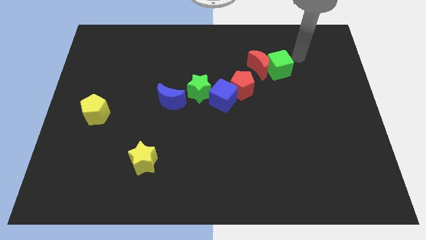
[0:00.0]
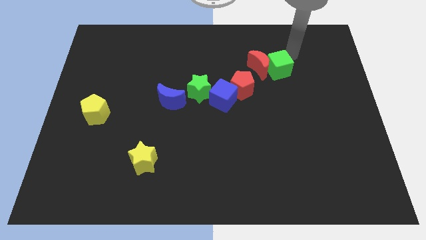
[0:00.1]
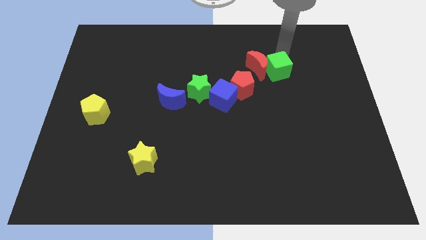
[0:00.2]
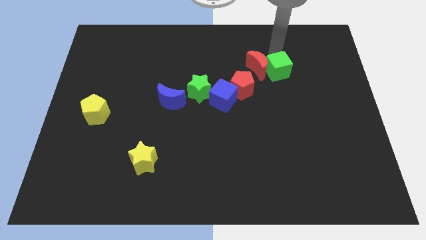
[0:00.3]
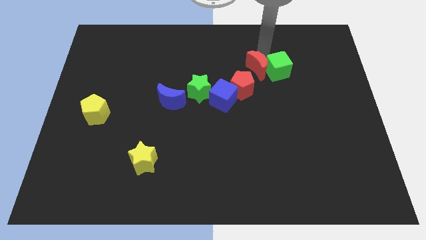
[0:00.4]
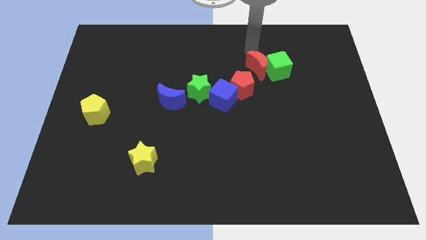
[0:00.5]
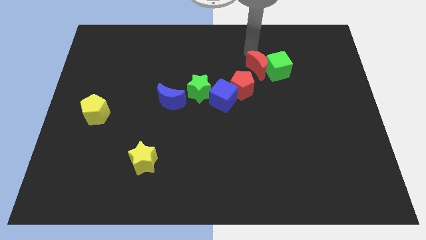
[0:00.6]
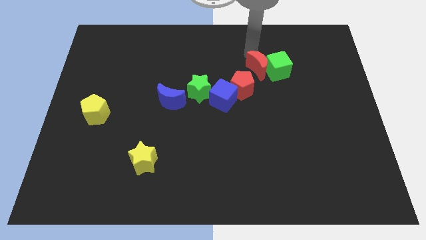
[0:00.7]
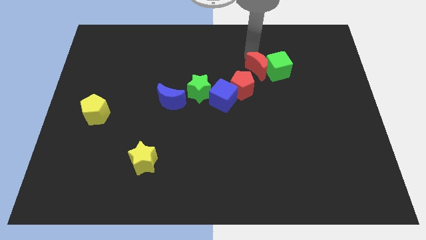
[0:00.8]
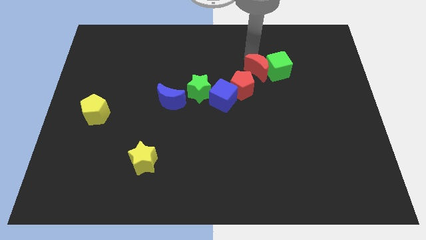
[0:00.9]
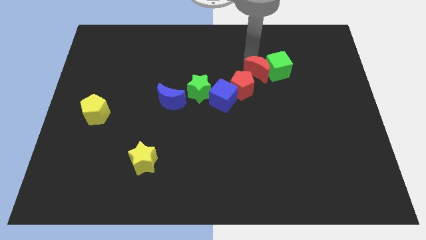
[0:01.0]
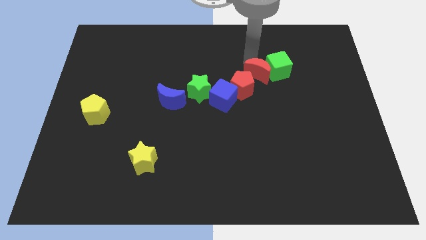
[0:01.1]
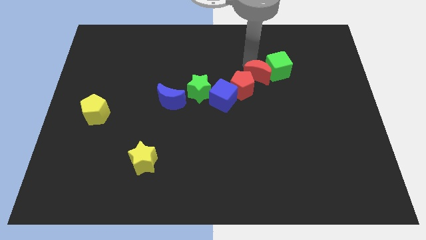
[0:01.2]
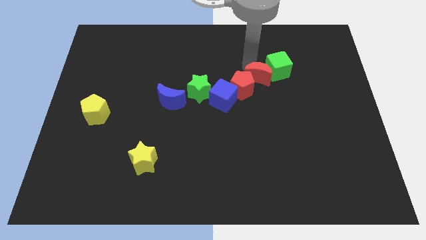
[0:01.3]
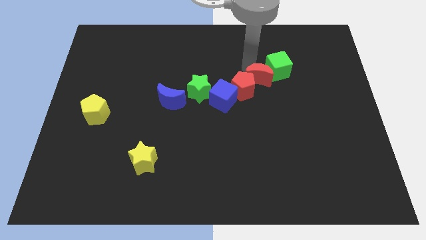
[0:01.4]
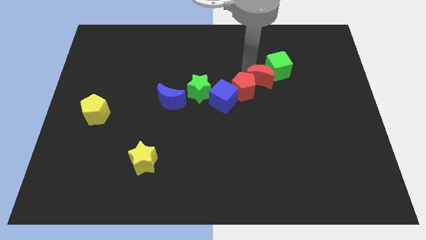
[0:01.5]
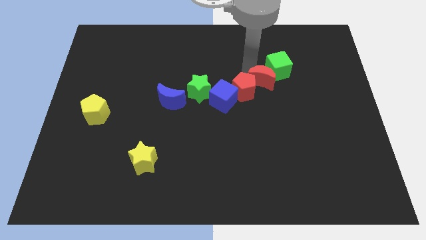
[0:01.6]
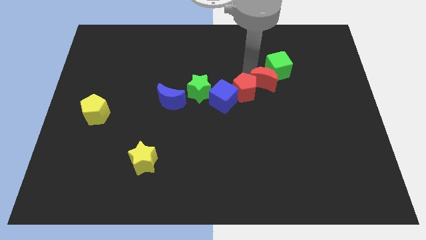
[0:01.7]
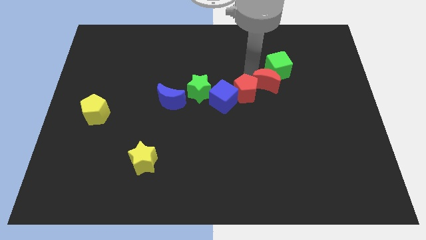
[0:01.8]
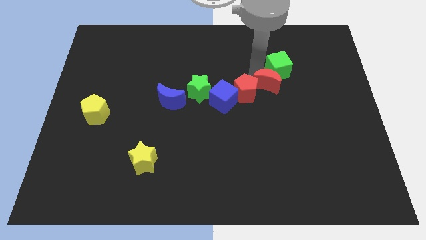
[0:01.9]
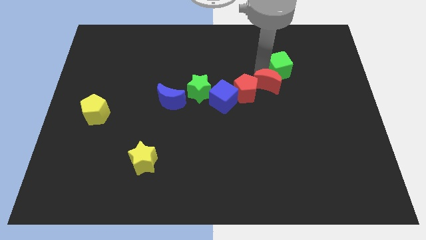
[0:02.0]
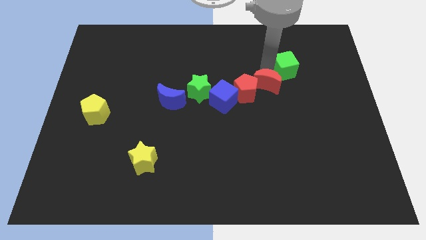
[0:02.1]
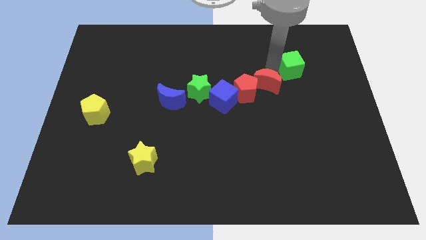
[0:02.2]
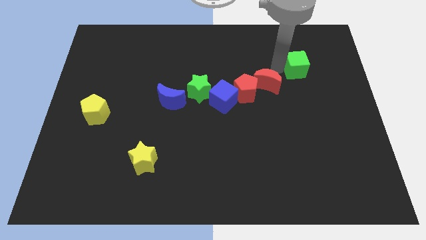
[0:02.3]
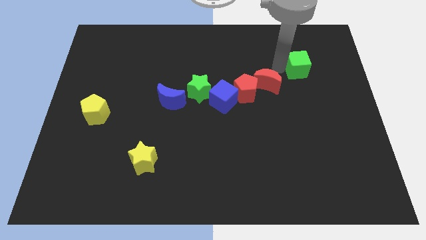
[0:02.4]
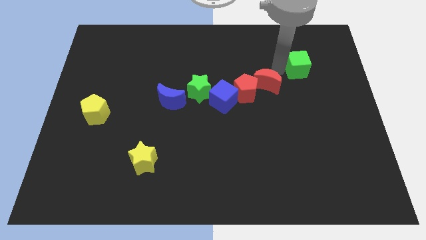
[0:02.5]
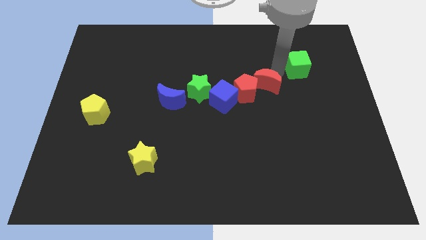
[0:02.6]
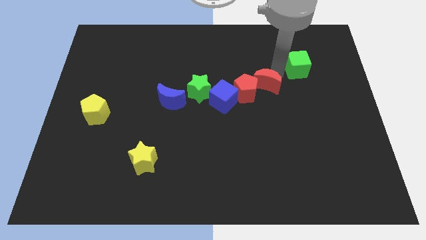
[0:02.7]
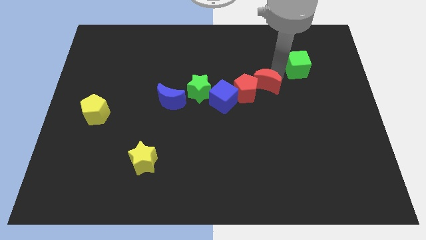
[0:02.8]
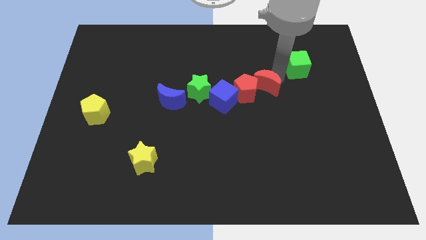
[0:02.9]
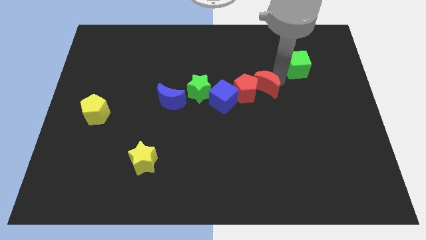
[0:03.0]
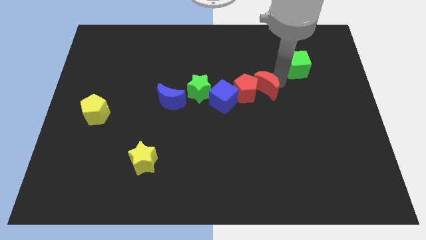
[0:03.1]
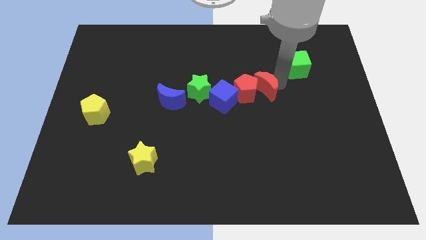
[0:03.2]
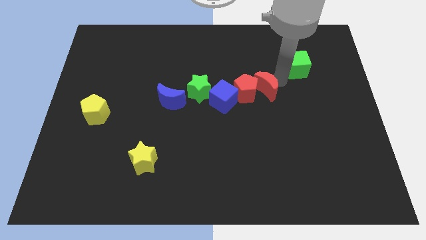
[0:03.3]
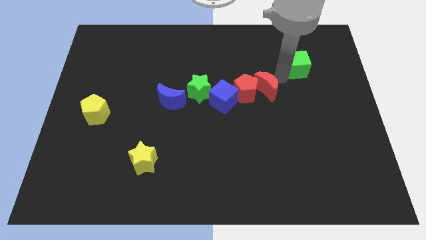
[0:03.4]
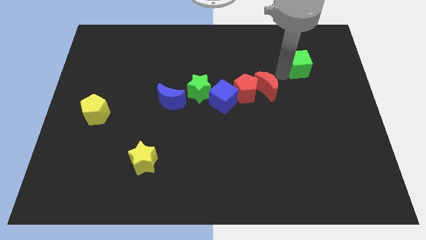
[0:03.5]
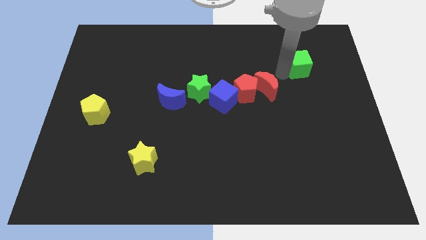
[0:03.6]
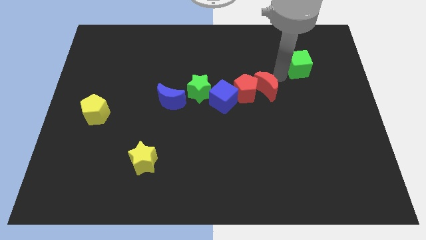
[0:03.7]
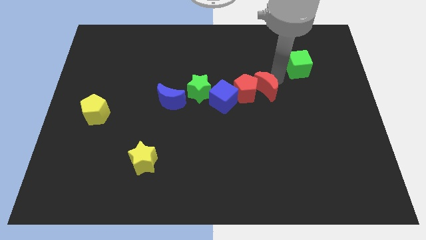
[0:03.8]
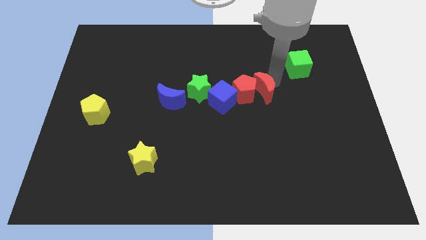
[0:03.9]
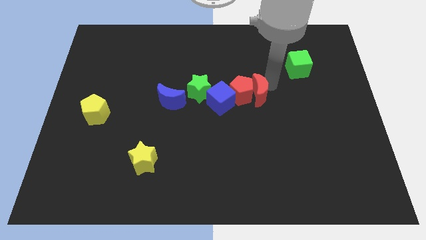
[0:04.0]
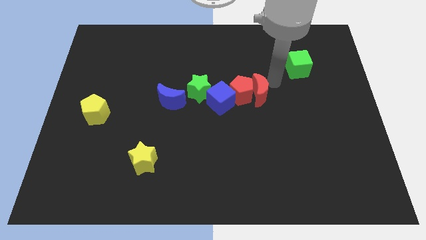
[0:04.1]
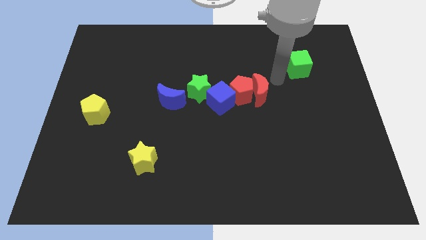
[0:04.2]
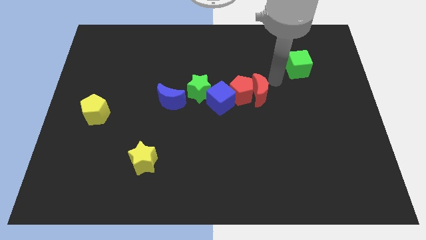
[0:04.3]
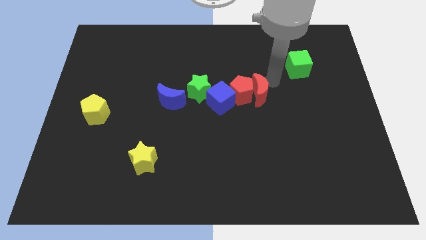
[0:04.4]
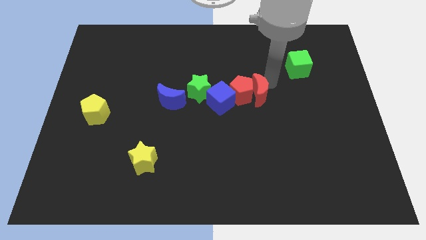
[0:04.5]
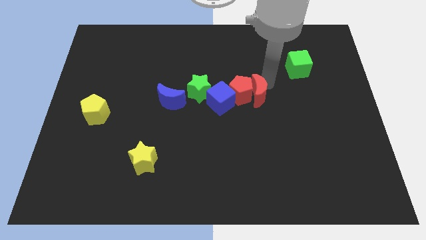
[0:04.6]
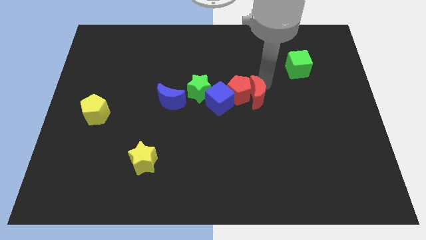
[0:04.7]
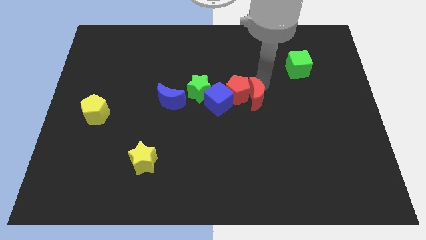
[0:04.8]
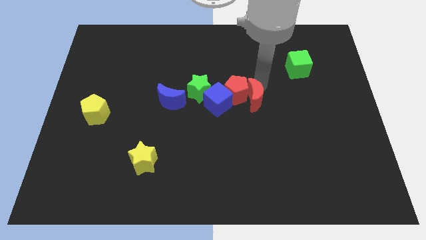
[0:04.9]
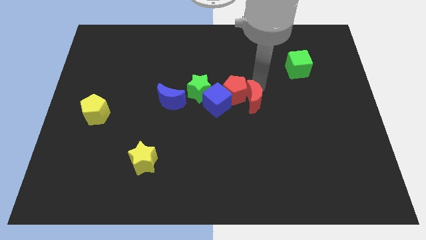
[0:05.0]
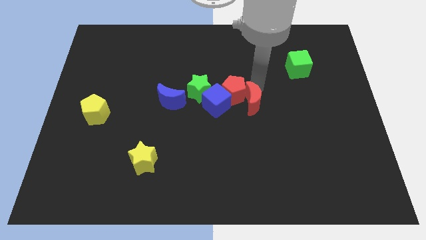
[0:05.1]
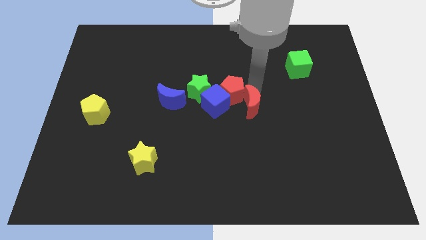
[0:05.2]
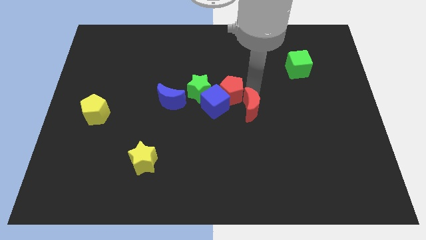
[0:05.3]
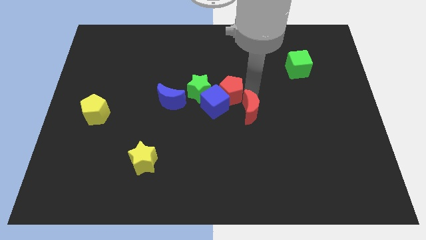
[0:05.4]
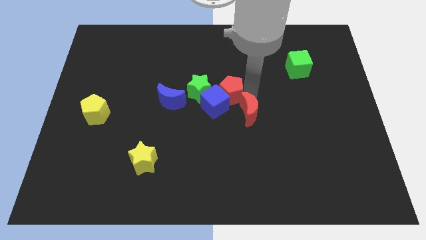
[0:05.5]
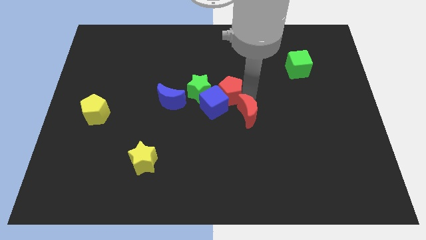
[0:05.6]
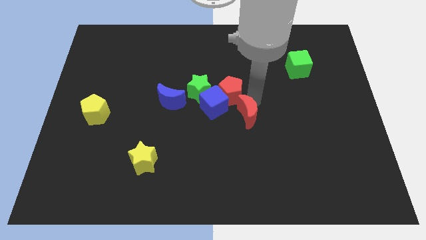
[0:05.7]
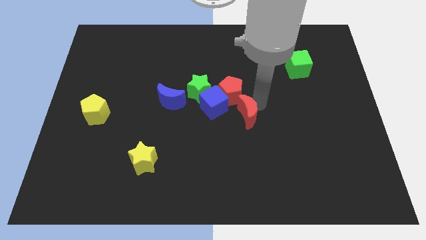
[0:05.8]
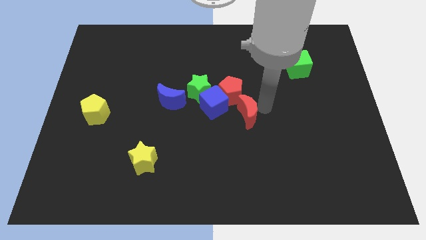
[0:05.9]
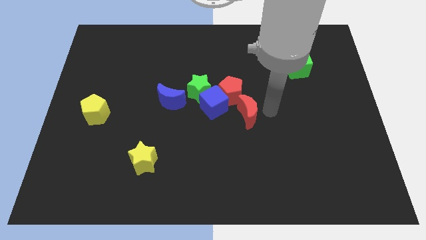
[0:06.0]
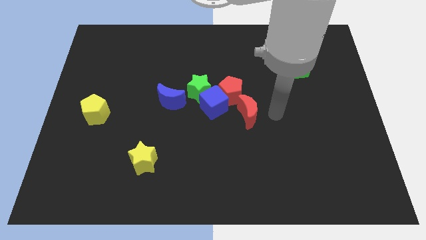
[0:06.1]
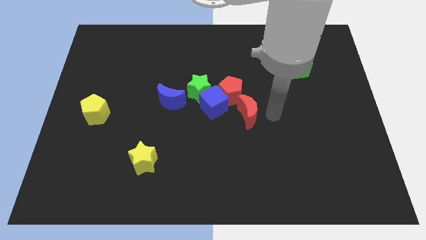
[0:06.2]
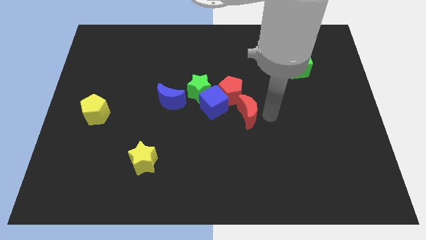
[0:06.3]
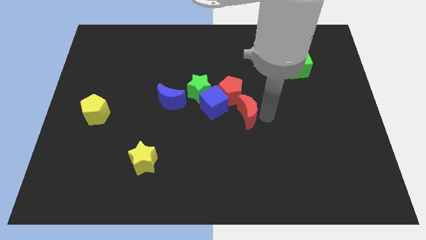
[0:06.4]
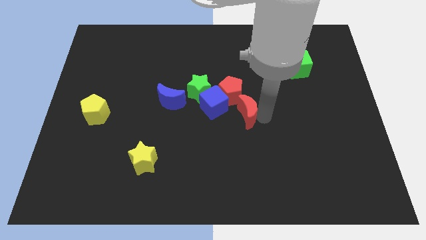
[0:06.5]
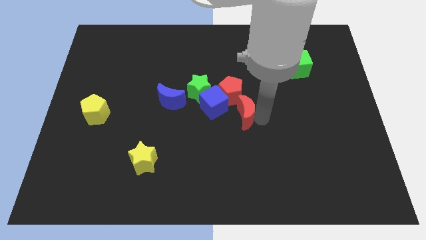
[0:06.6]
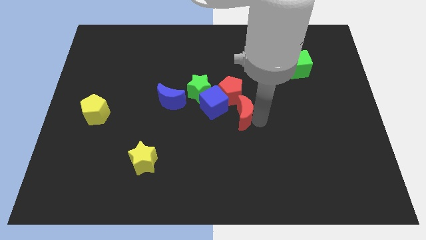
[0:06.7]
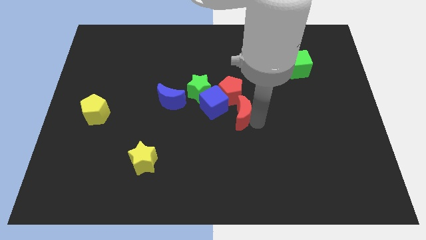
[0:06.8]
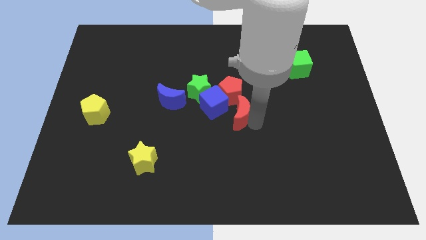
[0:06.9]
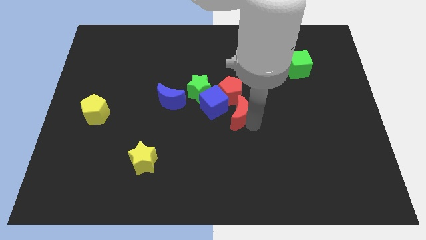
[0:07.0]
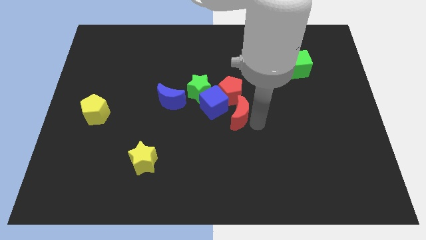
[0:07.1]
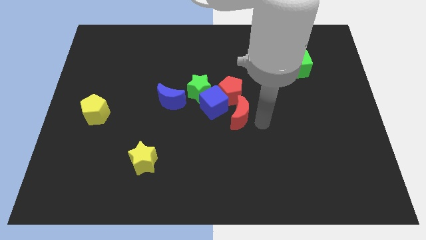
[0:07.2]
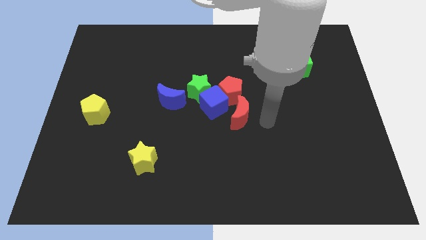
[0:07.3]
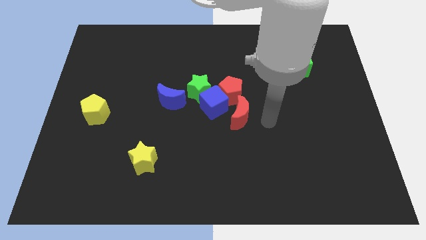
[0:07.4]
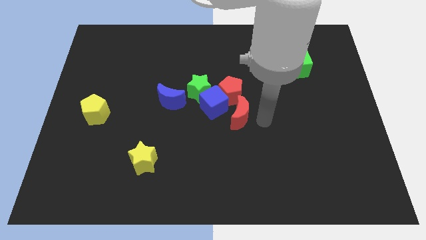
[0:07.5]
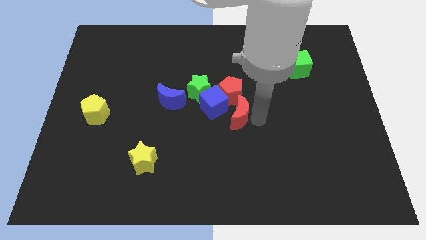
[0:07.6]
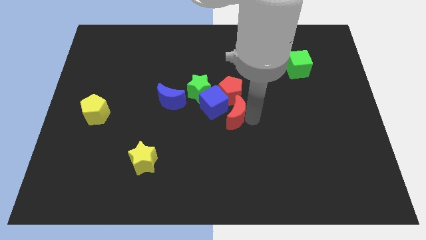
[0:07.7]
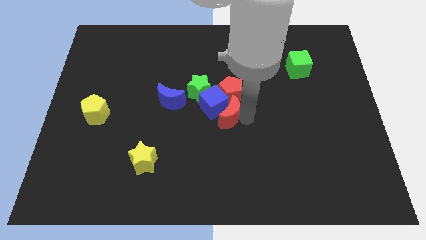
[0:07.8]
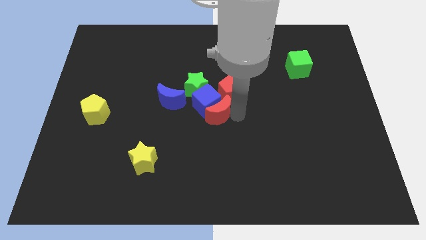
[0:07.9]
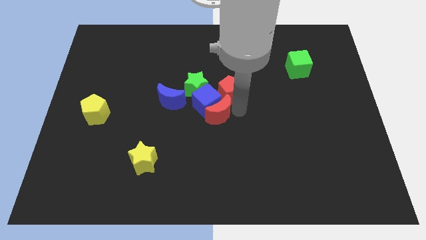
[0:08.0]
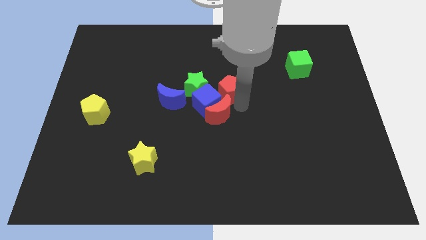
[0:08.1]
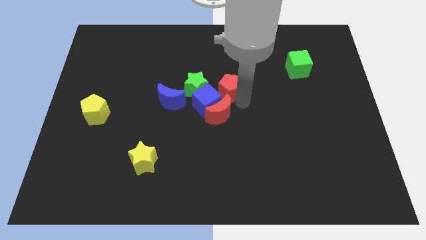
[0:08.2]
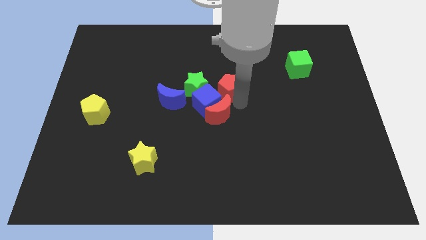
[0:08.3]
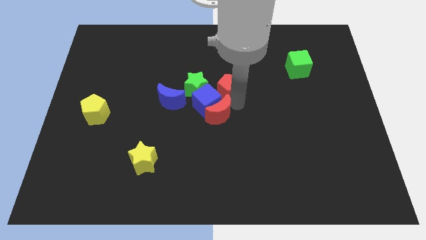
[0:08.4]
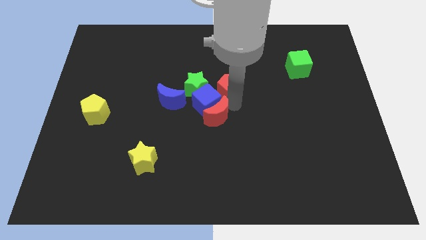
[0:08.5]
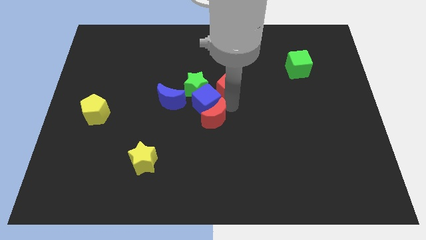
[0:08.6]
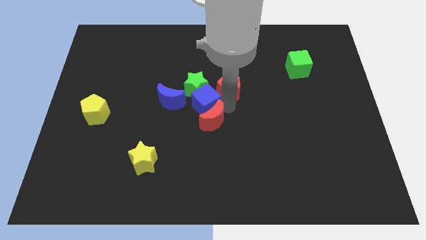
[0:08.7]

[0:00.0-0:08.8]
push the red moon downwards and then left
